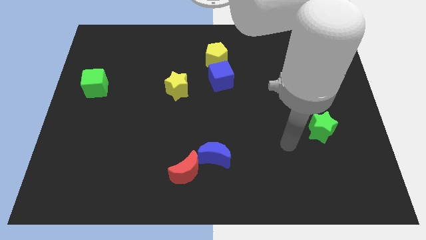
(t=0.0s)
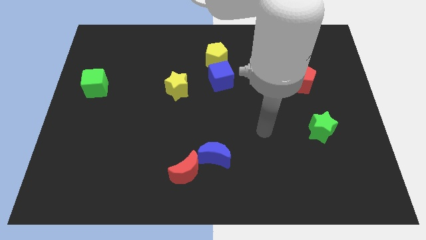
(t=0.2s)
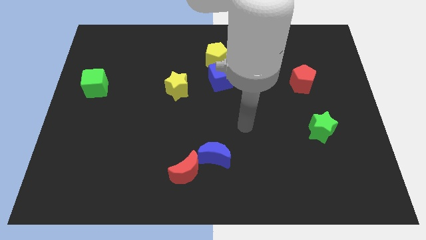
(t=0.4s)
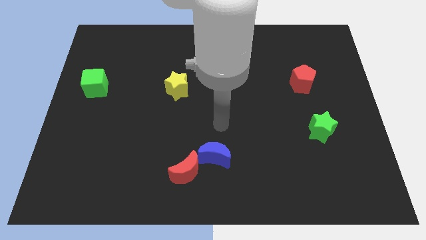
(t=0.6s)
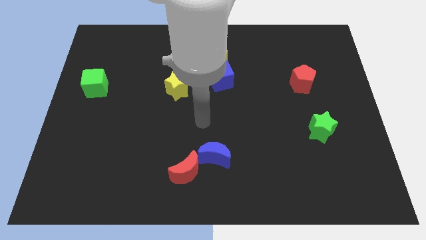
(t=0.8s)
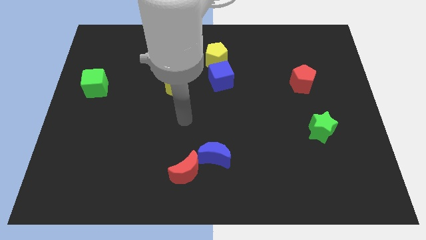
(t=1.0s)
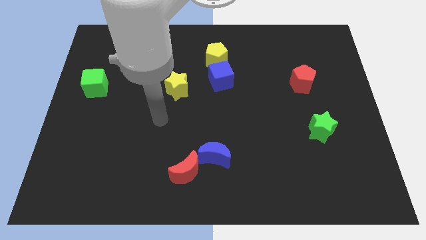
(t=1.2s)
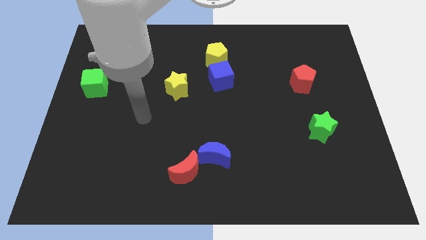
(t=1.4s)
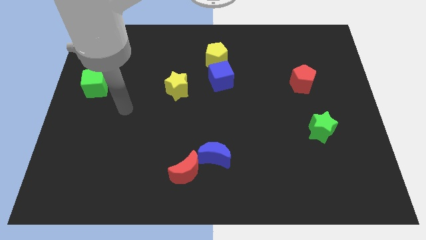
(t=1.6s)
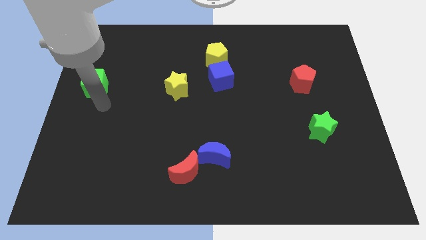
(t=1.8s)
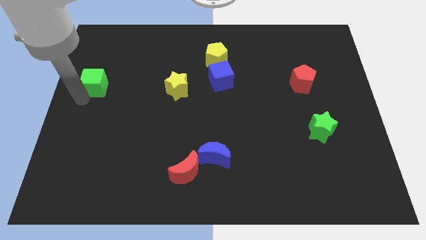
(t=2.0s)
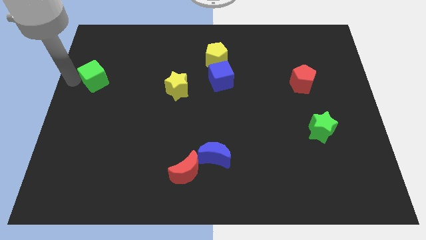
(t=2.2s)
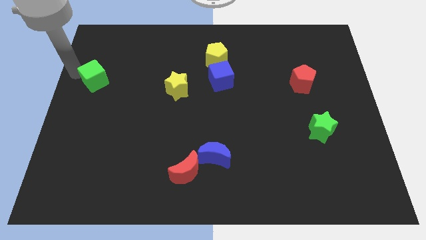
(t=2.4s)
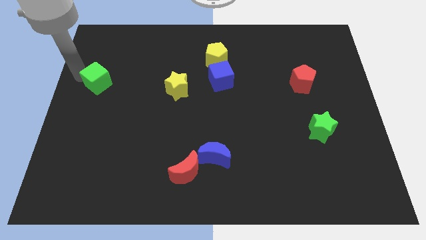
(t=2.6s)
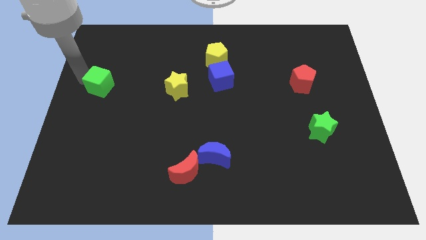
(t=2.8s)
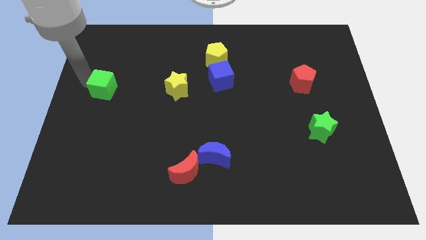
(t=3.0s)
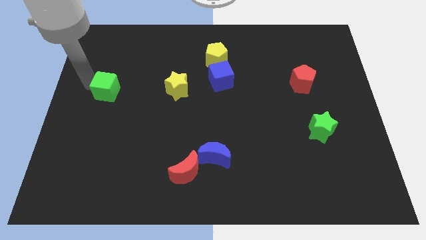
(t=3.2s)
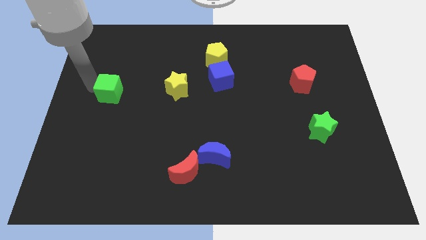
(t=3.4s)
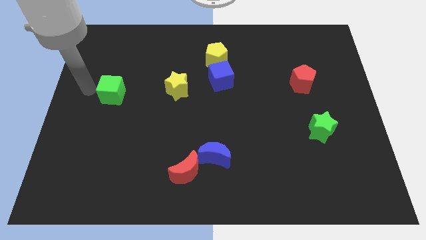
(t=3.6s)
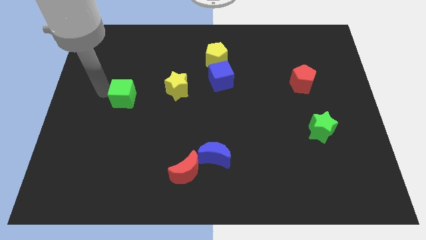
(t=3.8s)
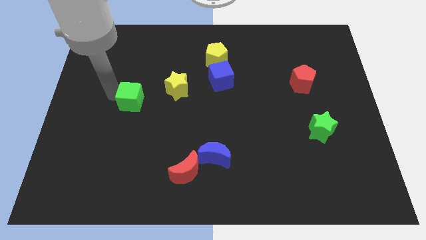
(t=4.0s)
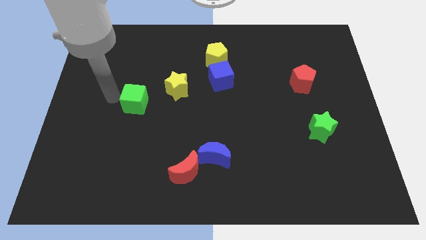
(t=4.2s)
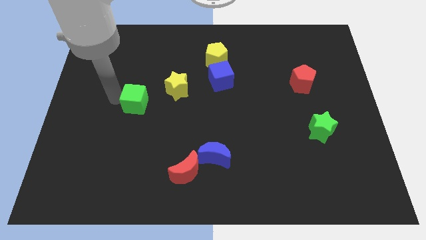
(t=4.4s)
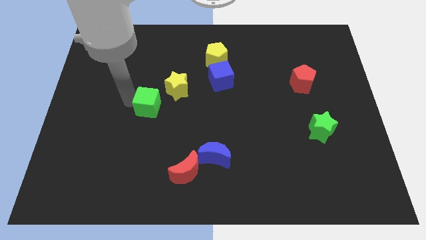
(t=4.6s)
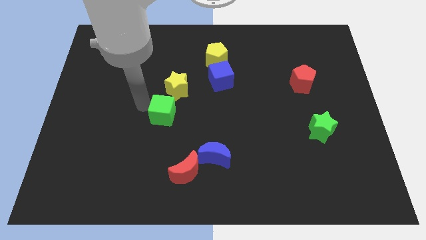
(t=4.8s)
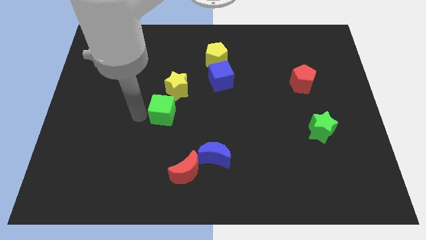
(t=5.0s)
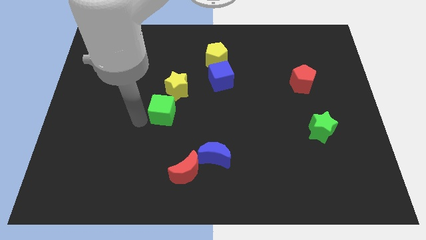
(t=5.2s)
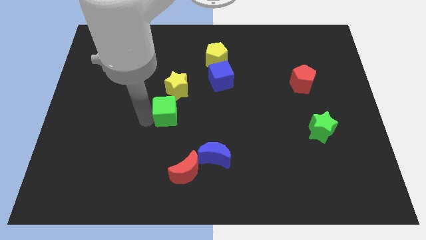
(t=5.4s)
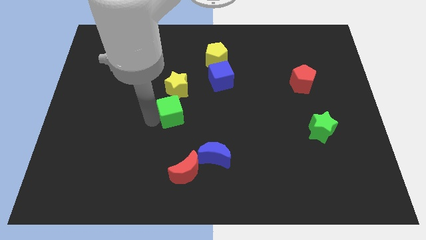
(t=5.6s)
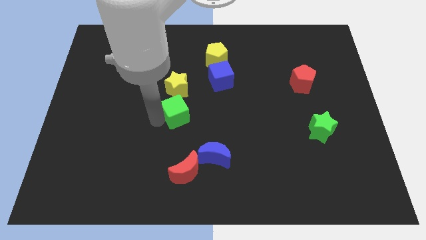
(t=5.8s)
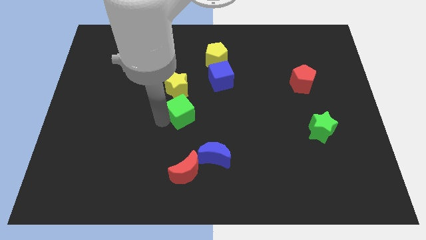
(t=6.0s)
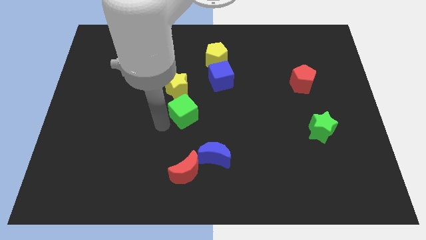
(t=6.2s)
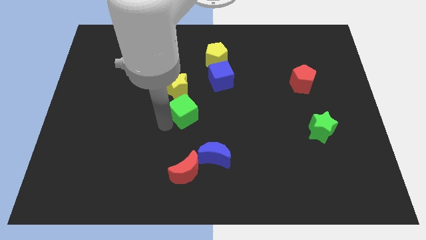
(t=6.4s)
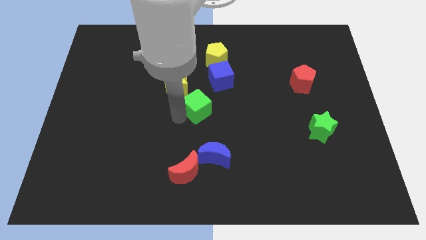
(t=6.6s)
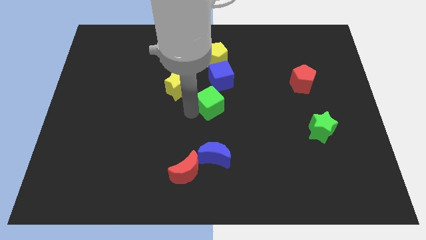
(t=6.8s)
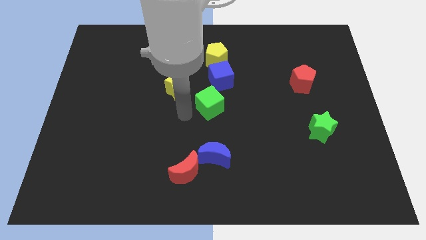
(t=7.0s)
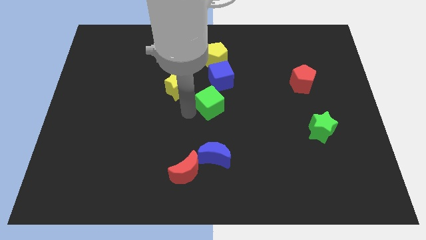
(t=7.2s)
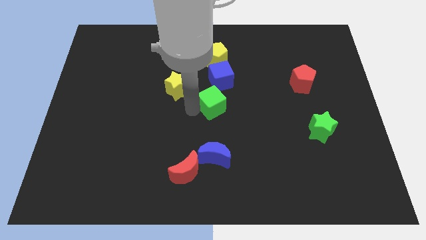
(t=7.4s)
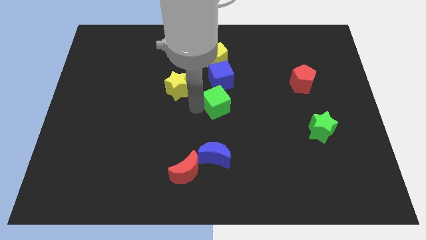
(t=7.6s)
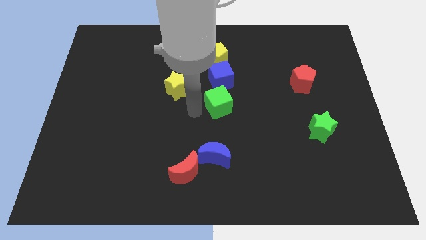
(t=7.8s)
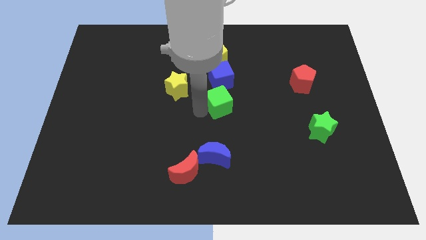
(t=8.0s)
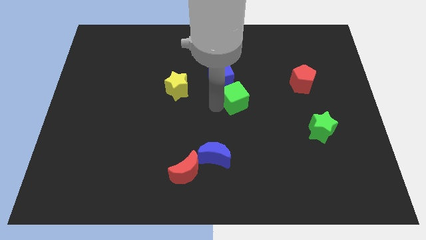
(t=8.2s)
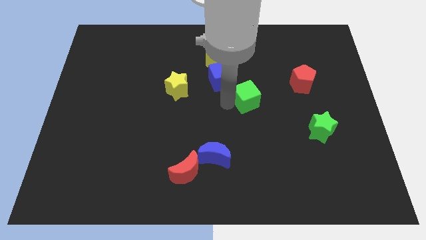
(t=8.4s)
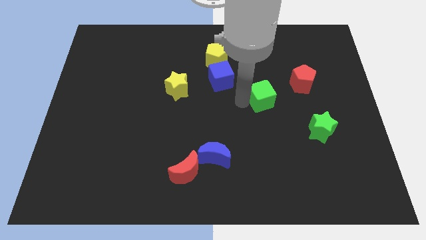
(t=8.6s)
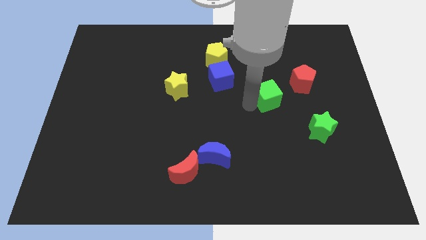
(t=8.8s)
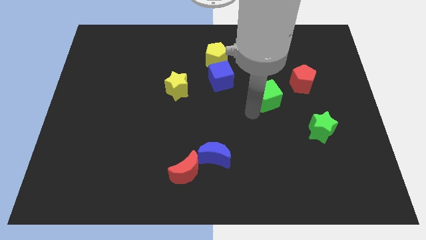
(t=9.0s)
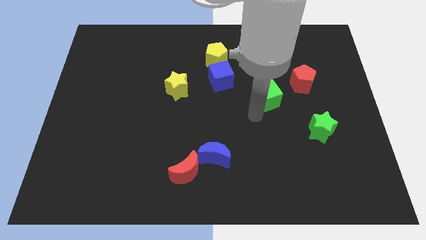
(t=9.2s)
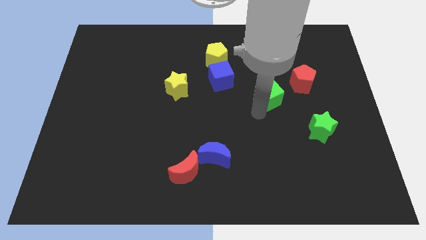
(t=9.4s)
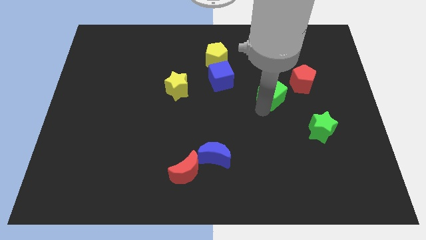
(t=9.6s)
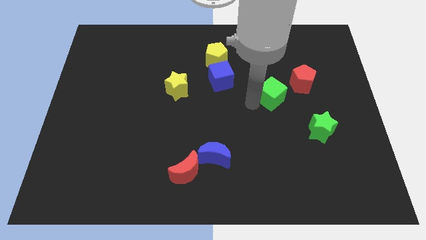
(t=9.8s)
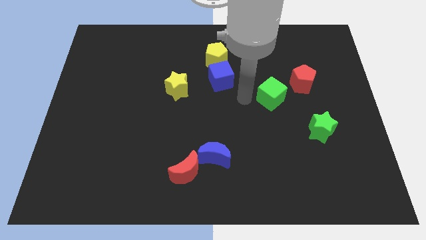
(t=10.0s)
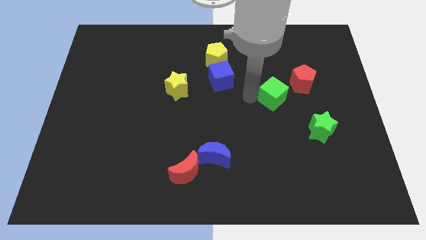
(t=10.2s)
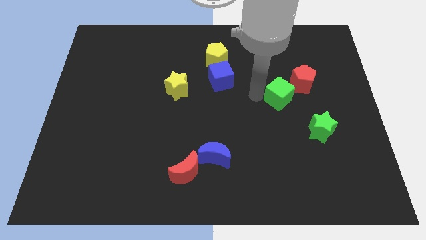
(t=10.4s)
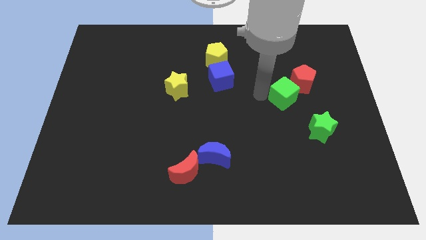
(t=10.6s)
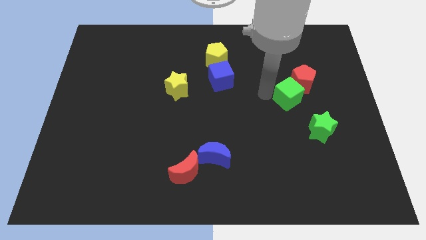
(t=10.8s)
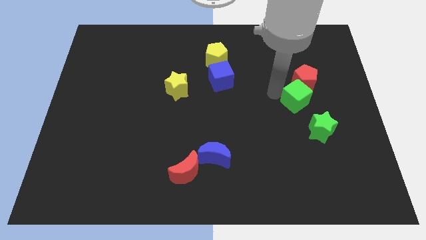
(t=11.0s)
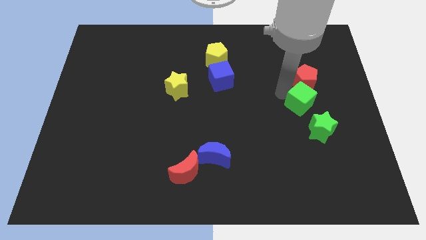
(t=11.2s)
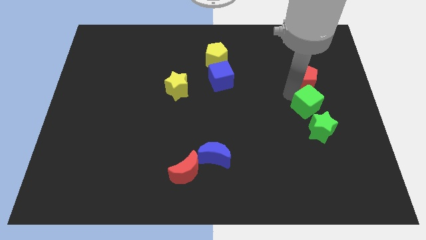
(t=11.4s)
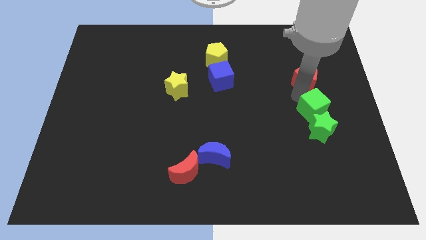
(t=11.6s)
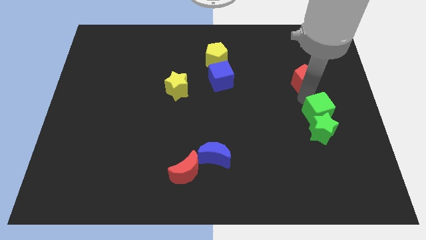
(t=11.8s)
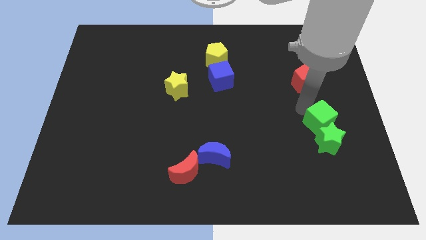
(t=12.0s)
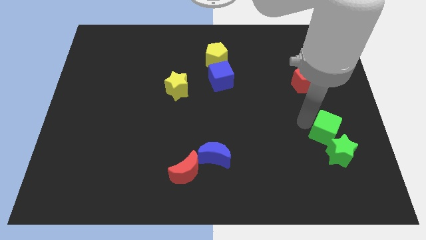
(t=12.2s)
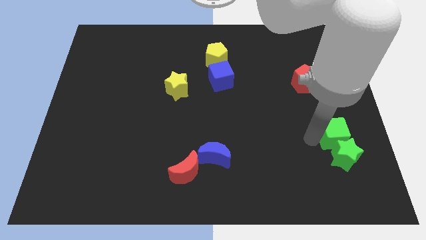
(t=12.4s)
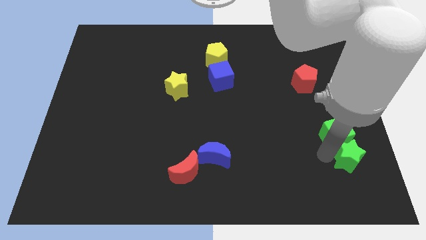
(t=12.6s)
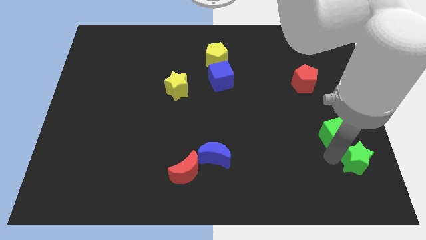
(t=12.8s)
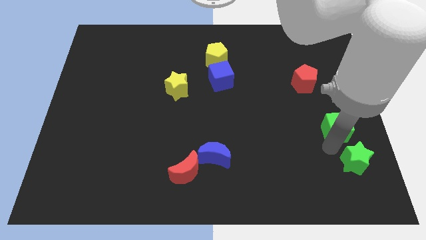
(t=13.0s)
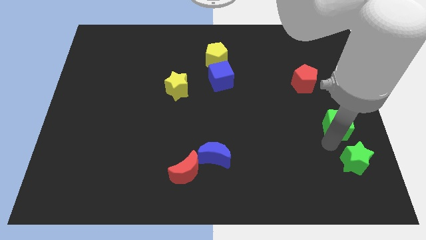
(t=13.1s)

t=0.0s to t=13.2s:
move the green cube to the right side

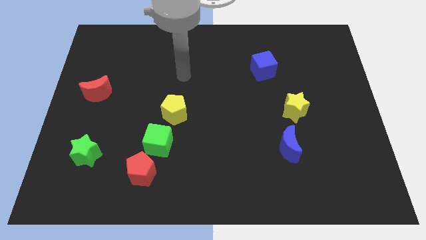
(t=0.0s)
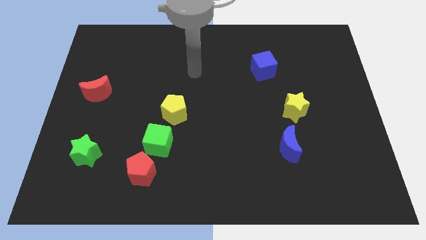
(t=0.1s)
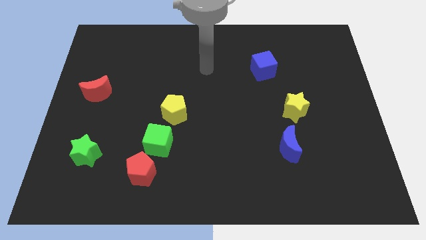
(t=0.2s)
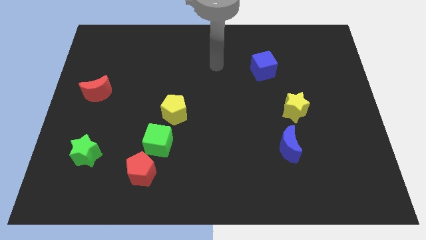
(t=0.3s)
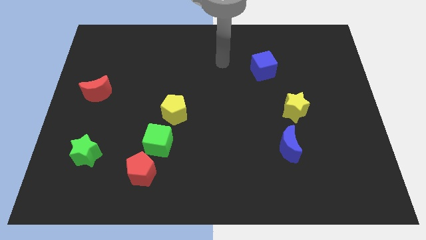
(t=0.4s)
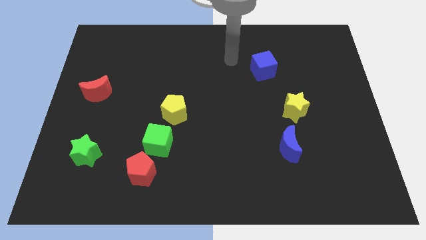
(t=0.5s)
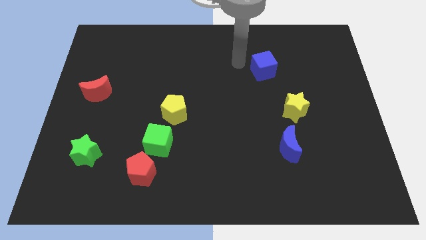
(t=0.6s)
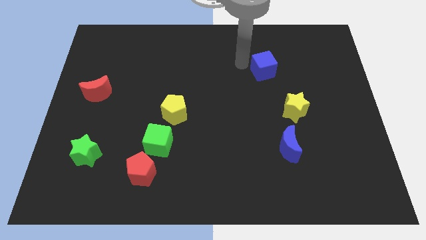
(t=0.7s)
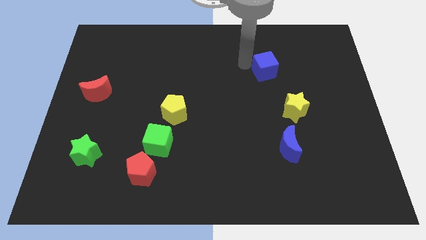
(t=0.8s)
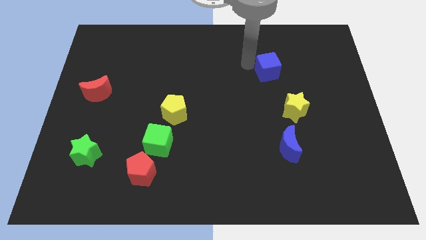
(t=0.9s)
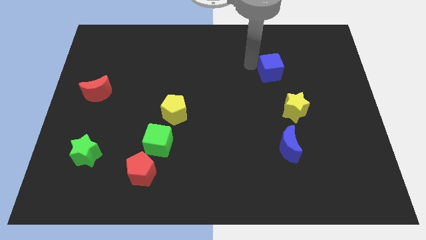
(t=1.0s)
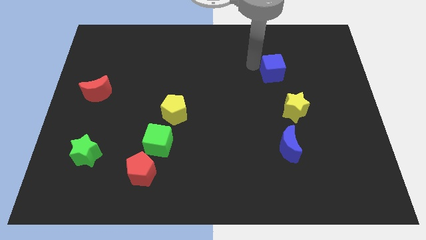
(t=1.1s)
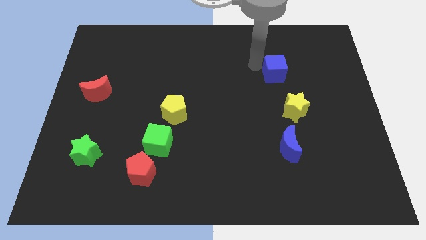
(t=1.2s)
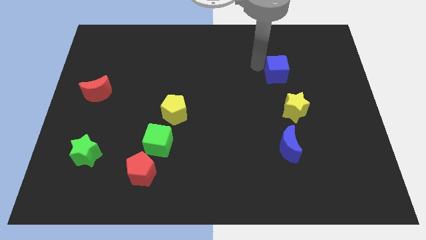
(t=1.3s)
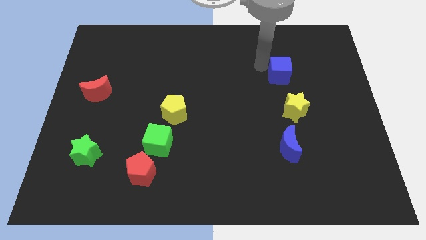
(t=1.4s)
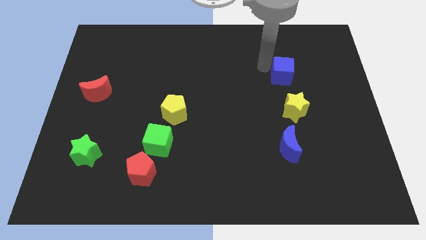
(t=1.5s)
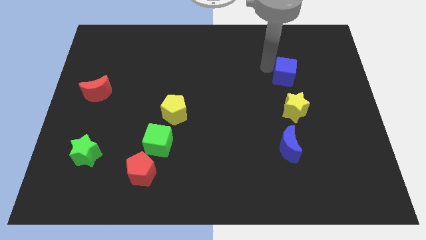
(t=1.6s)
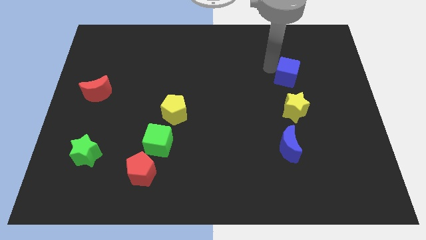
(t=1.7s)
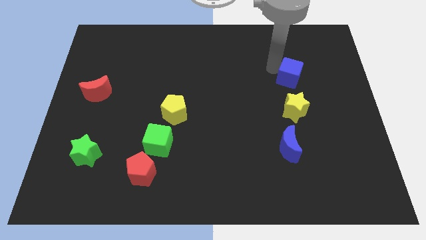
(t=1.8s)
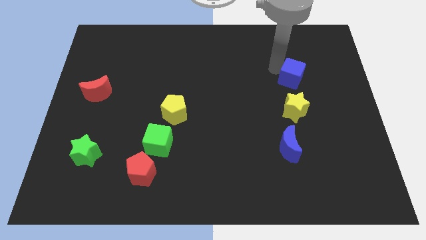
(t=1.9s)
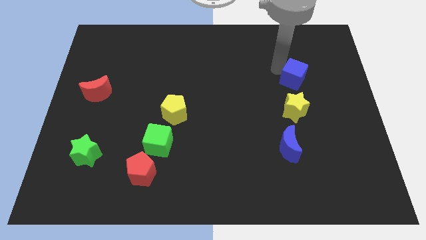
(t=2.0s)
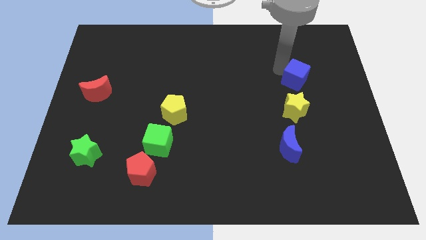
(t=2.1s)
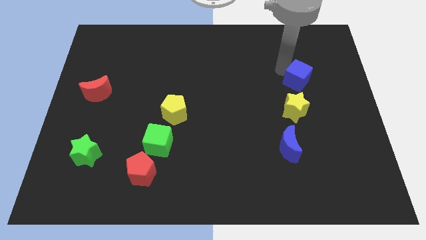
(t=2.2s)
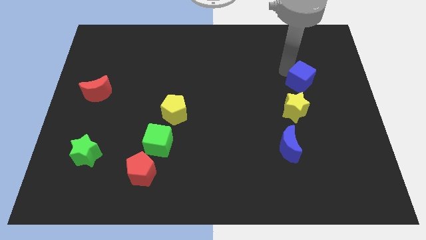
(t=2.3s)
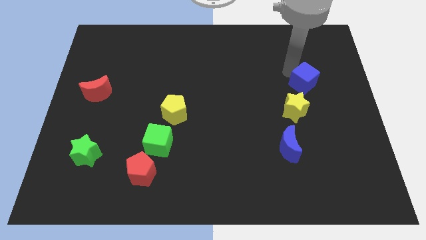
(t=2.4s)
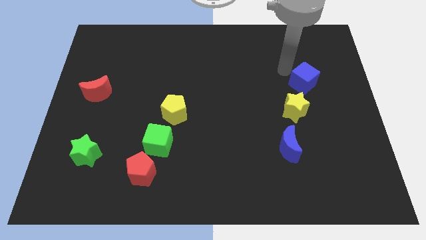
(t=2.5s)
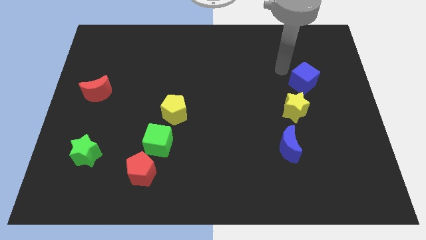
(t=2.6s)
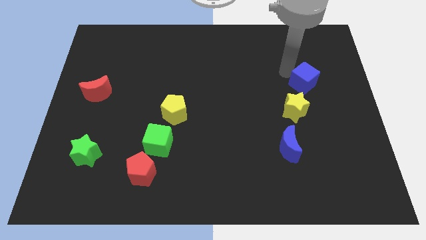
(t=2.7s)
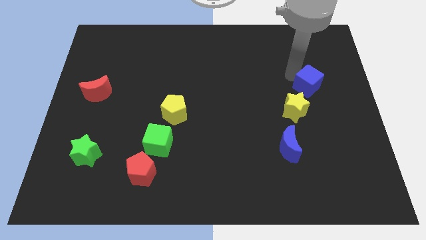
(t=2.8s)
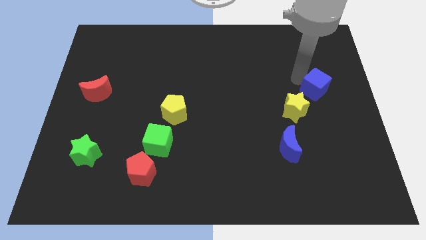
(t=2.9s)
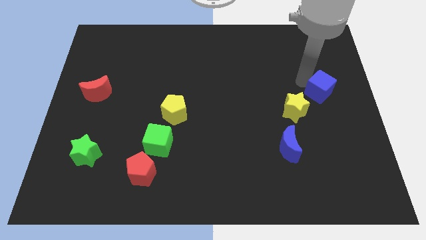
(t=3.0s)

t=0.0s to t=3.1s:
move the blue cube to the center right
